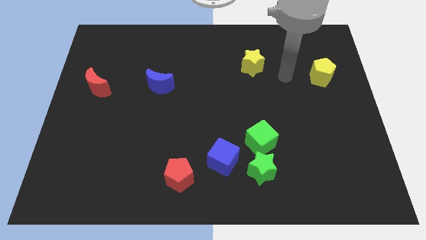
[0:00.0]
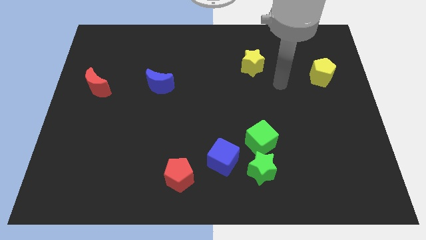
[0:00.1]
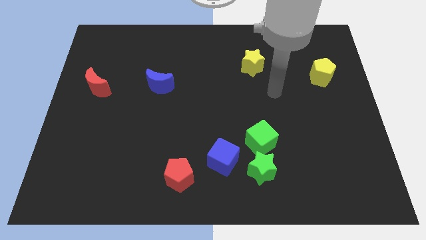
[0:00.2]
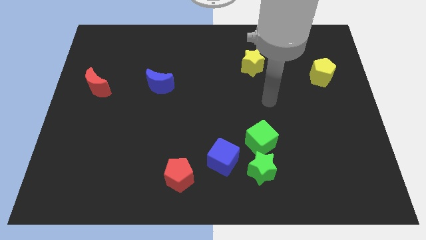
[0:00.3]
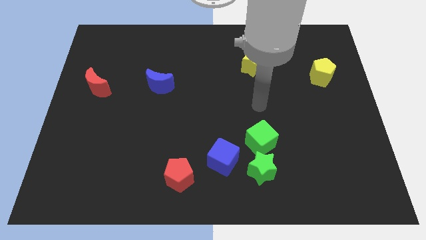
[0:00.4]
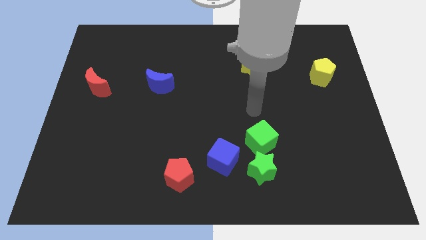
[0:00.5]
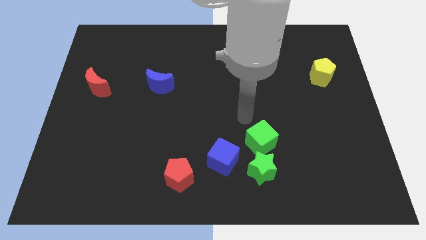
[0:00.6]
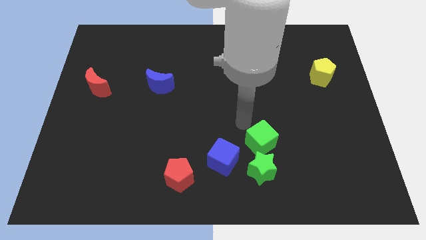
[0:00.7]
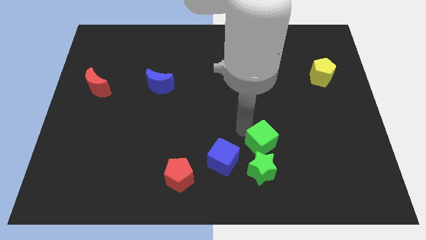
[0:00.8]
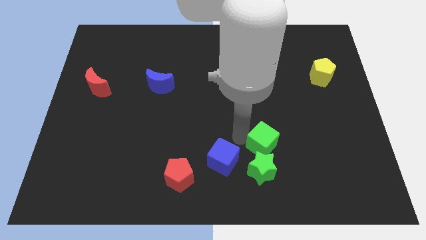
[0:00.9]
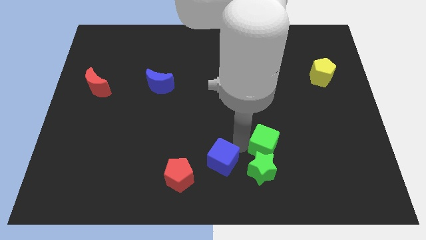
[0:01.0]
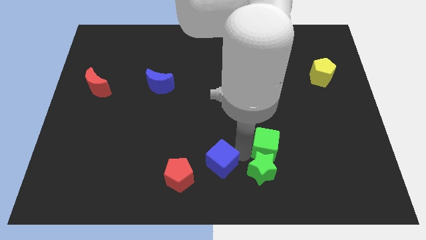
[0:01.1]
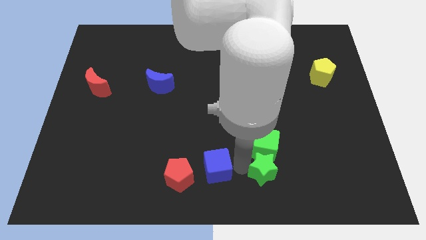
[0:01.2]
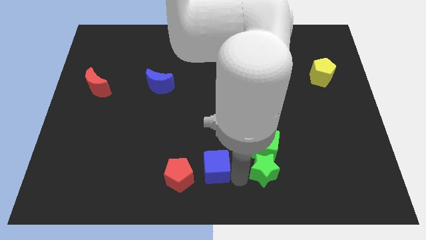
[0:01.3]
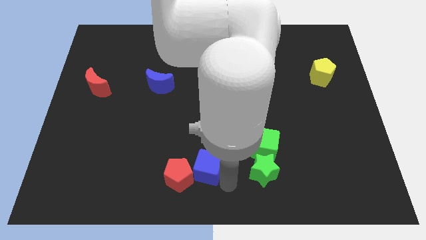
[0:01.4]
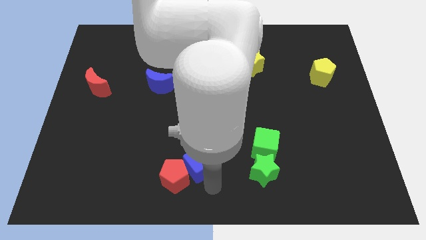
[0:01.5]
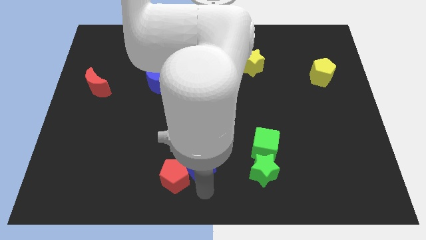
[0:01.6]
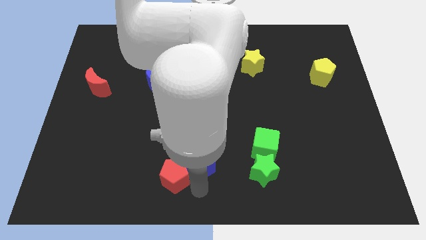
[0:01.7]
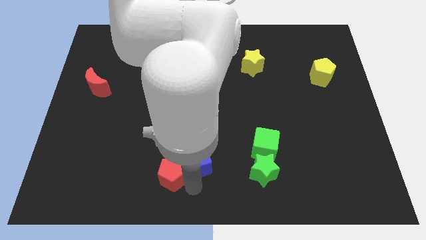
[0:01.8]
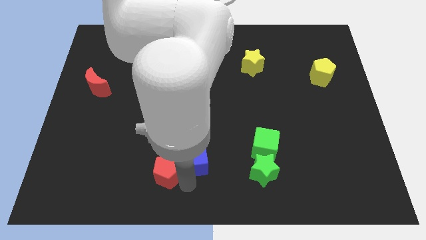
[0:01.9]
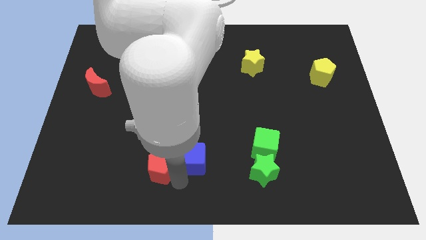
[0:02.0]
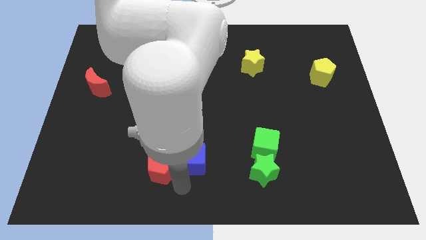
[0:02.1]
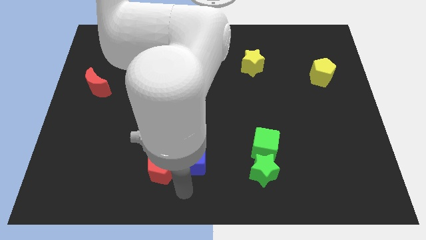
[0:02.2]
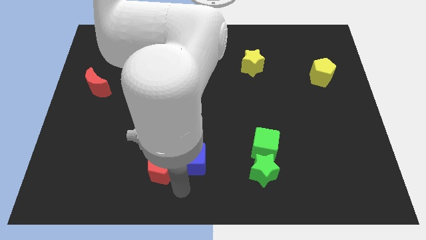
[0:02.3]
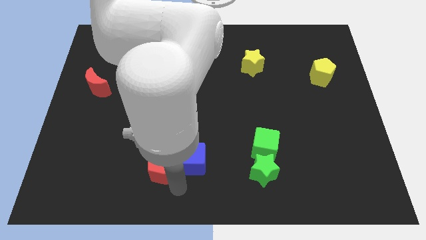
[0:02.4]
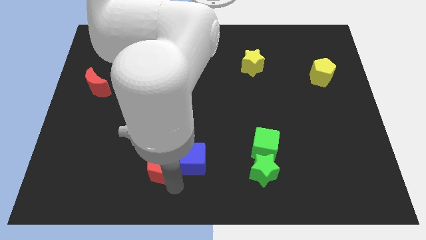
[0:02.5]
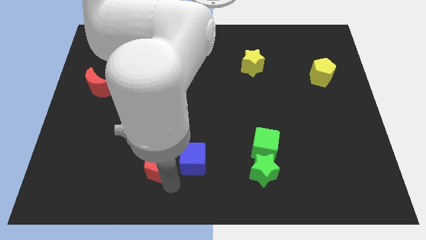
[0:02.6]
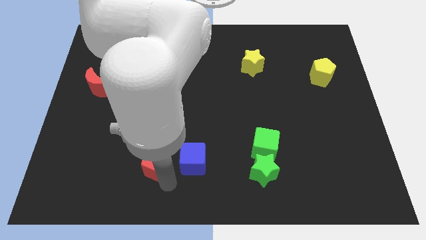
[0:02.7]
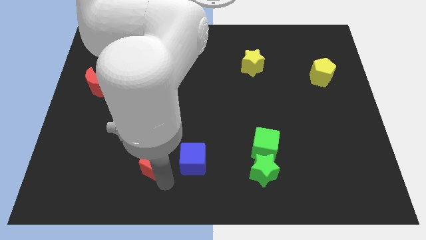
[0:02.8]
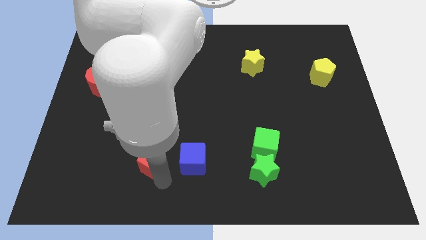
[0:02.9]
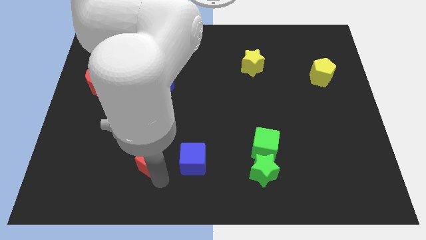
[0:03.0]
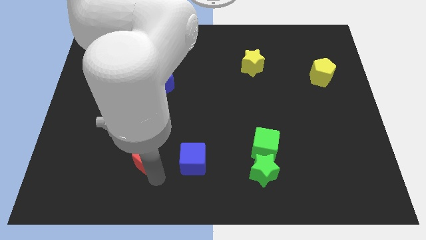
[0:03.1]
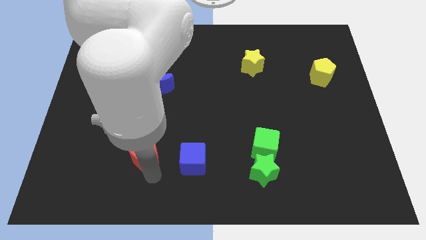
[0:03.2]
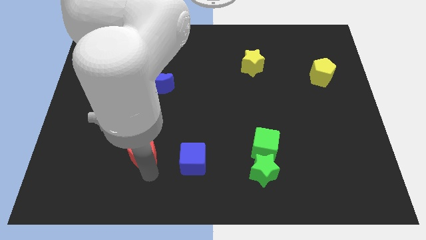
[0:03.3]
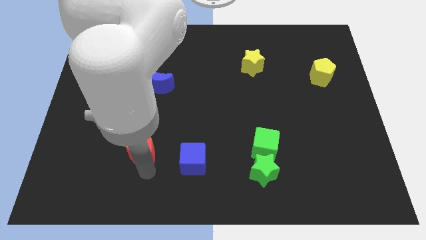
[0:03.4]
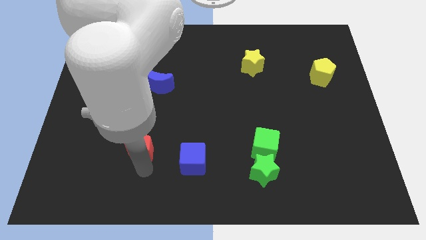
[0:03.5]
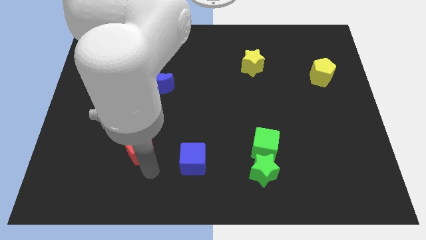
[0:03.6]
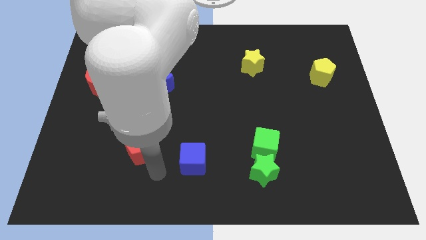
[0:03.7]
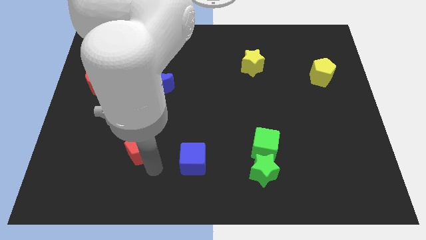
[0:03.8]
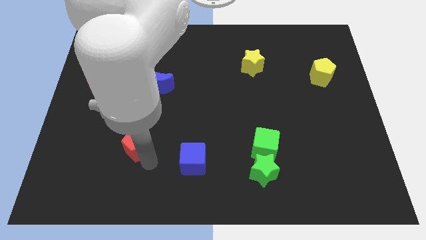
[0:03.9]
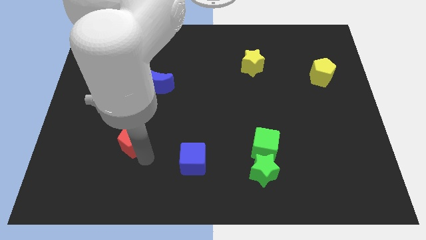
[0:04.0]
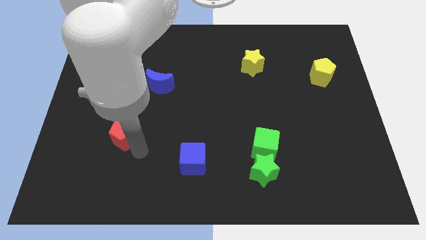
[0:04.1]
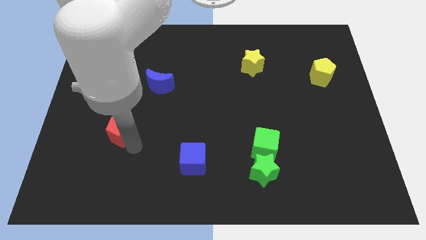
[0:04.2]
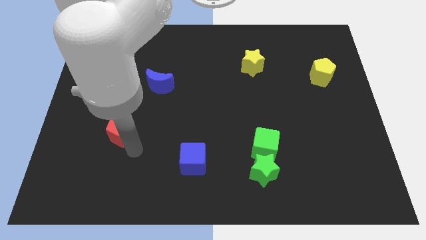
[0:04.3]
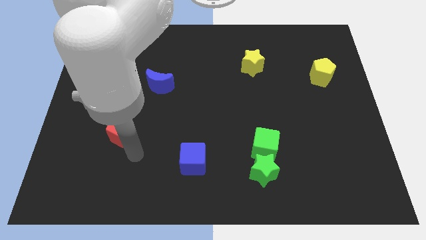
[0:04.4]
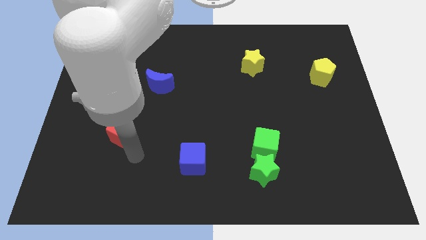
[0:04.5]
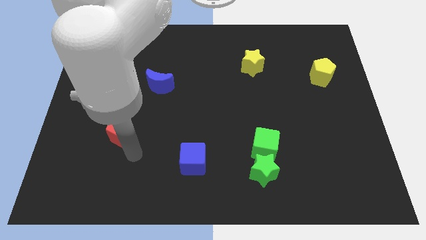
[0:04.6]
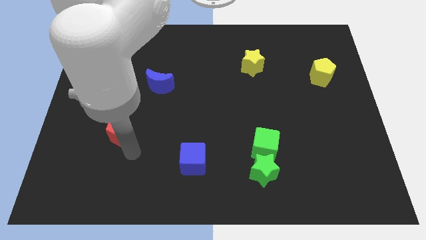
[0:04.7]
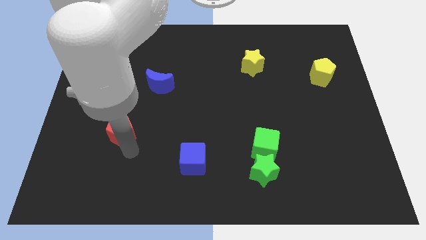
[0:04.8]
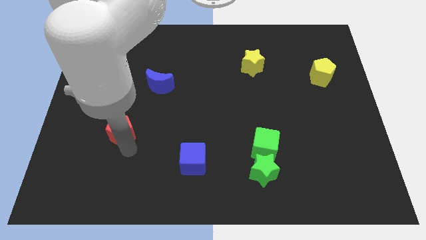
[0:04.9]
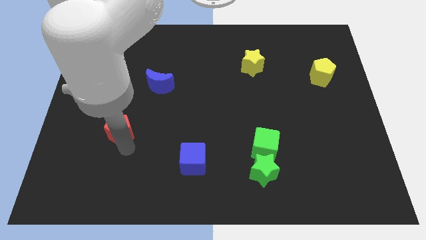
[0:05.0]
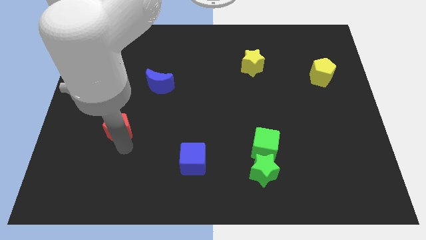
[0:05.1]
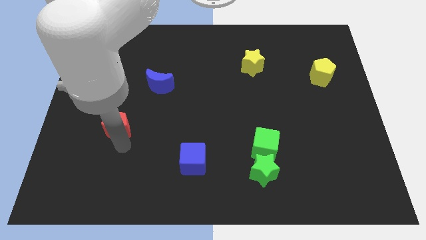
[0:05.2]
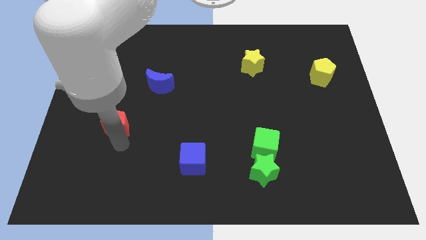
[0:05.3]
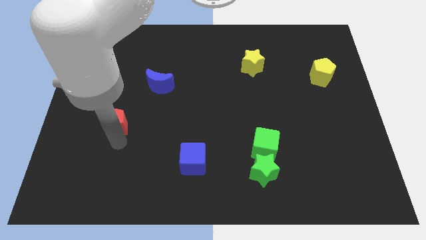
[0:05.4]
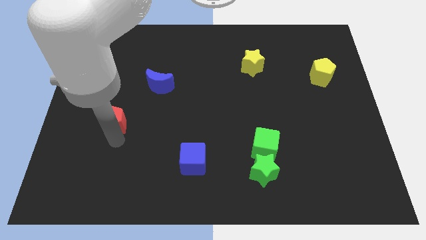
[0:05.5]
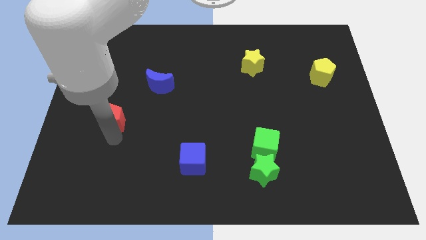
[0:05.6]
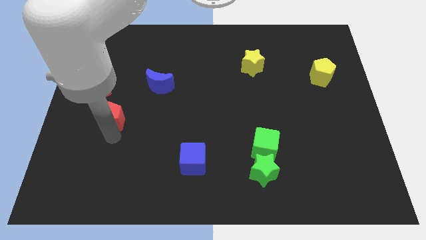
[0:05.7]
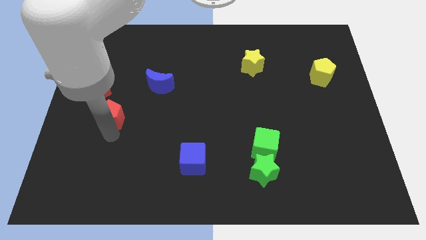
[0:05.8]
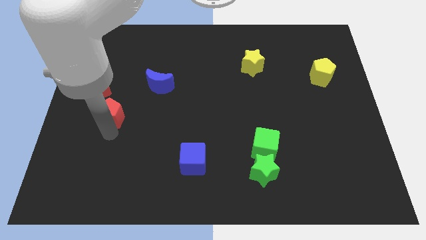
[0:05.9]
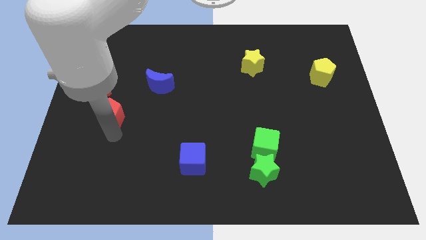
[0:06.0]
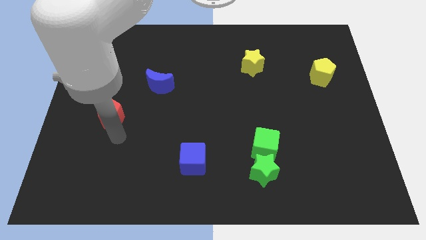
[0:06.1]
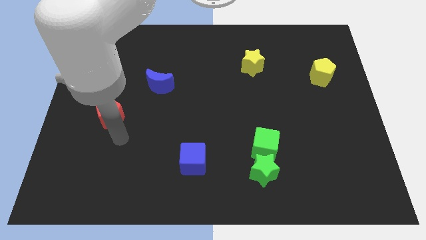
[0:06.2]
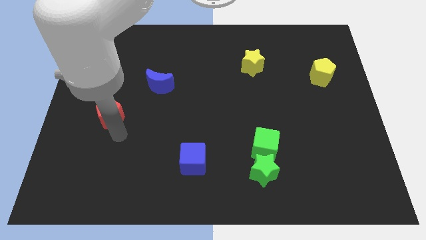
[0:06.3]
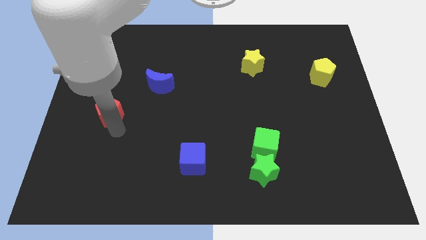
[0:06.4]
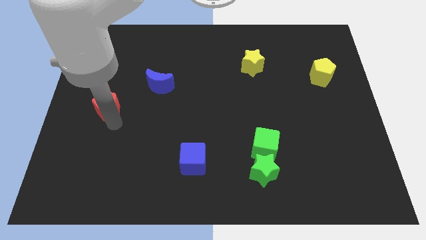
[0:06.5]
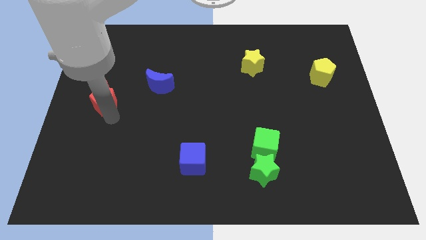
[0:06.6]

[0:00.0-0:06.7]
slide the red pentagon close to the red moon
